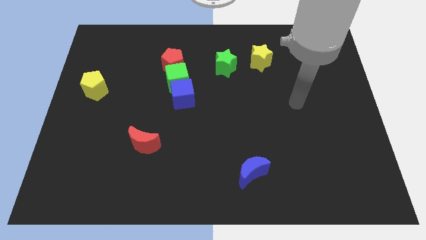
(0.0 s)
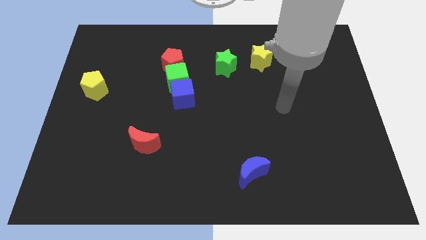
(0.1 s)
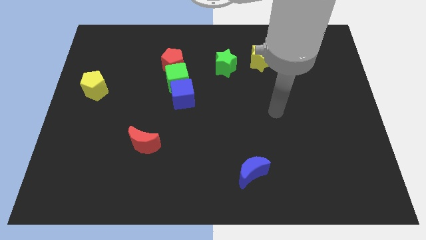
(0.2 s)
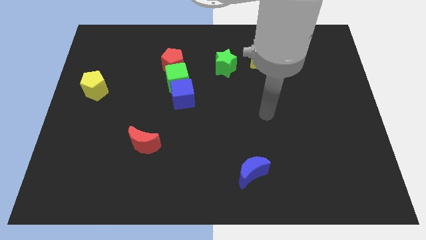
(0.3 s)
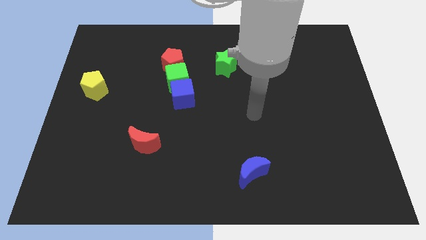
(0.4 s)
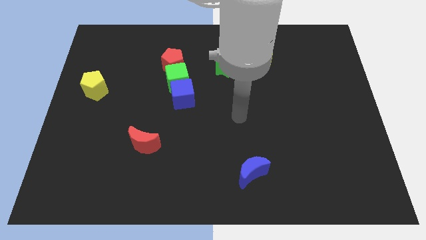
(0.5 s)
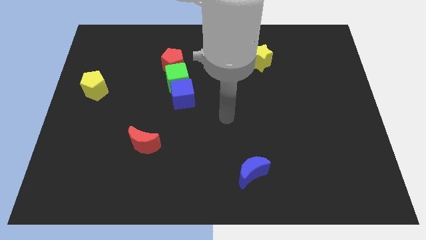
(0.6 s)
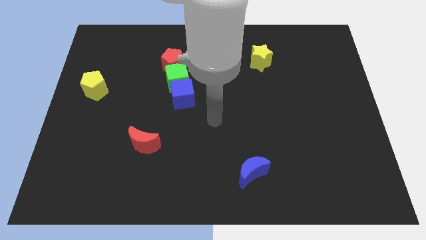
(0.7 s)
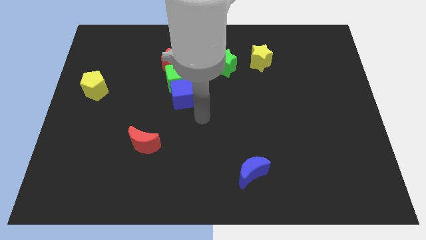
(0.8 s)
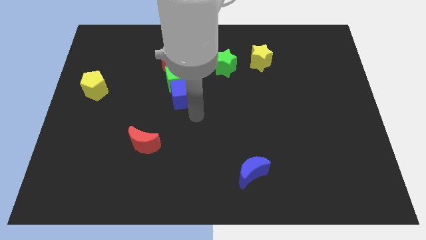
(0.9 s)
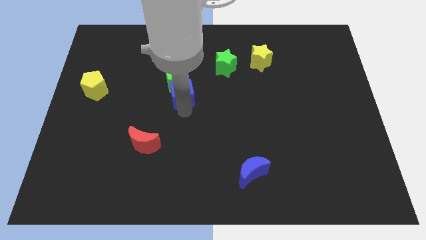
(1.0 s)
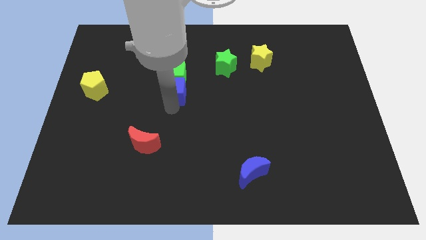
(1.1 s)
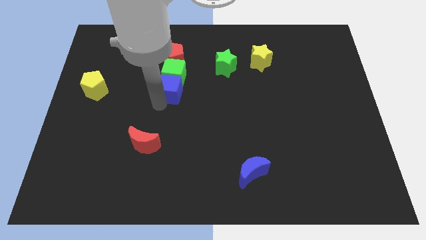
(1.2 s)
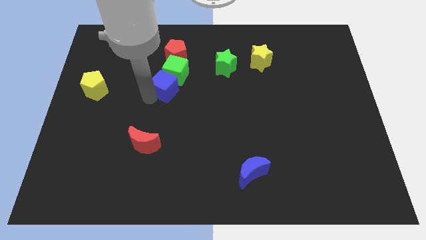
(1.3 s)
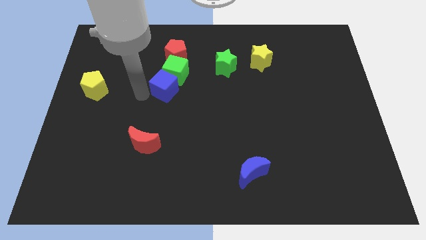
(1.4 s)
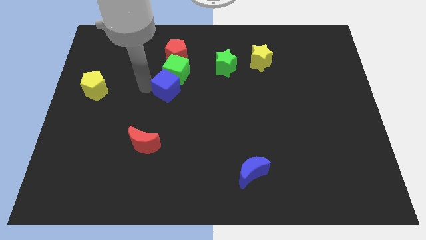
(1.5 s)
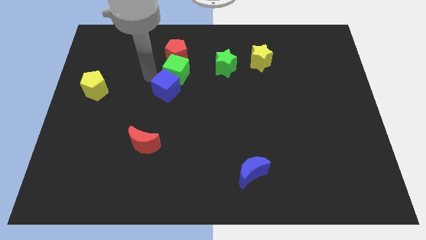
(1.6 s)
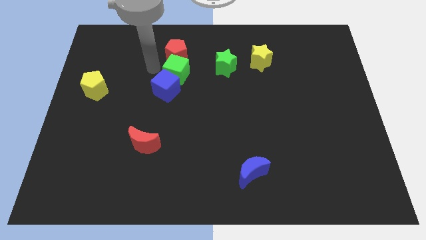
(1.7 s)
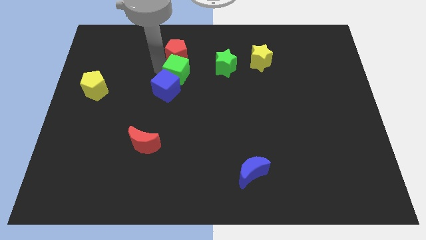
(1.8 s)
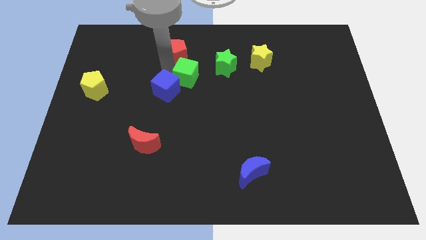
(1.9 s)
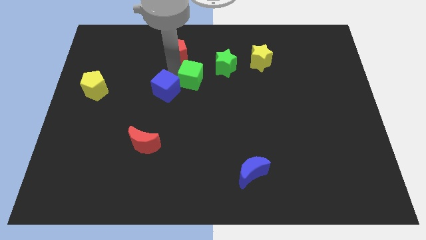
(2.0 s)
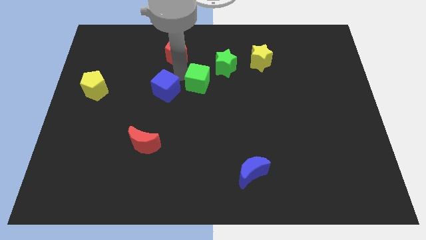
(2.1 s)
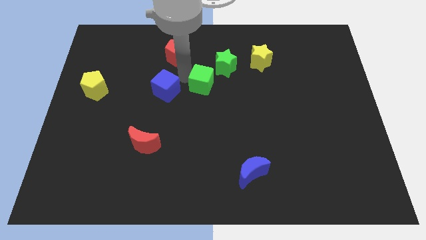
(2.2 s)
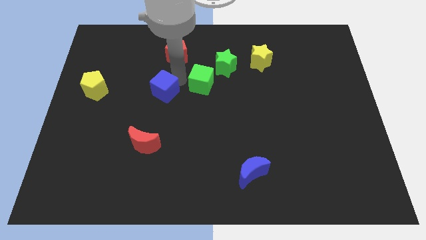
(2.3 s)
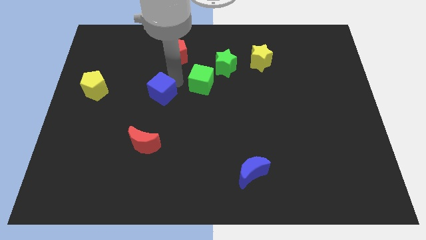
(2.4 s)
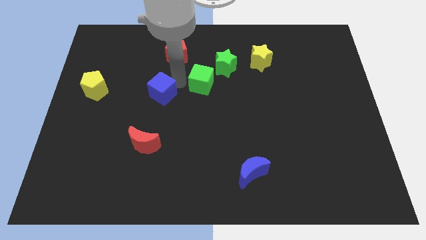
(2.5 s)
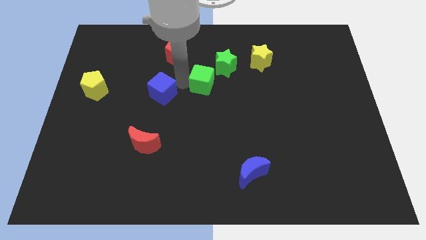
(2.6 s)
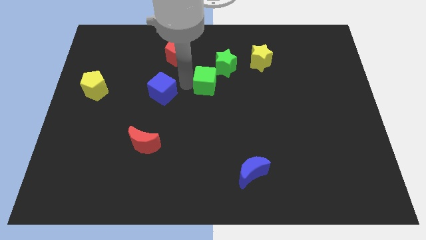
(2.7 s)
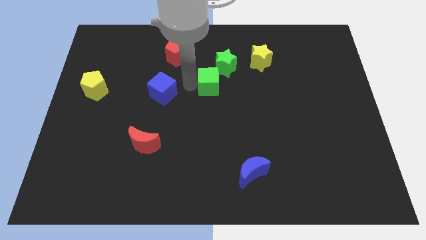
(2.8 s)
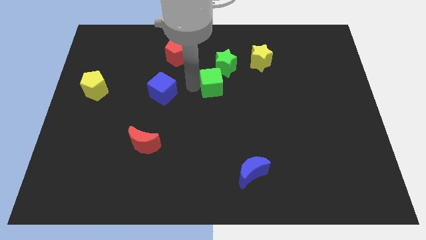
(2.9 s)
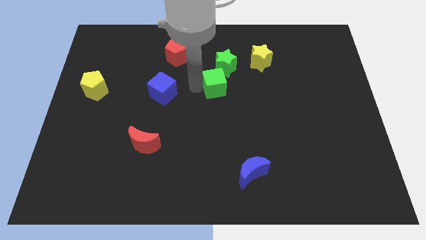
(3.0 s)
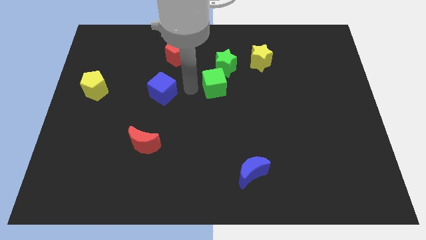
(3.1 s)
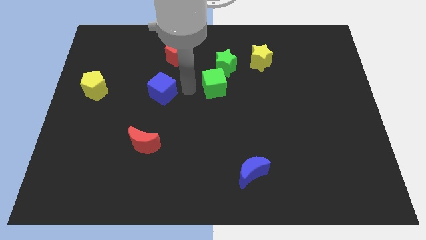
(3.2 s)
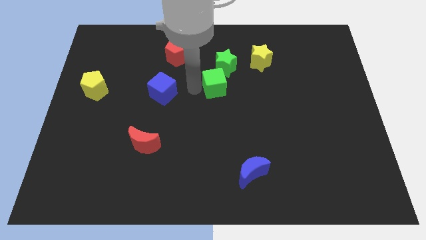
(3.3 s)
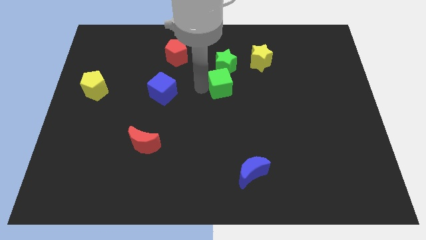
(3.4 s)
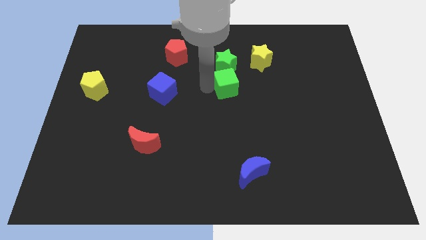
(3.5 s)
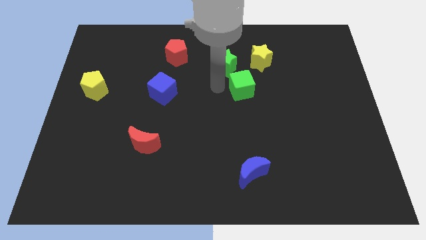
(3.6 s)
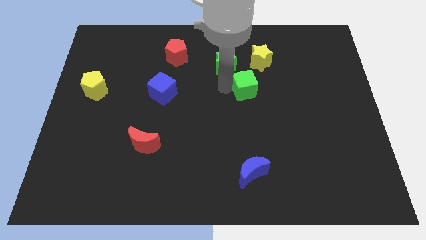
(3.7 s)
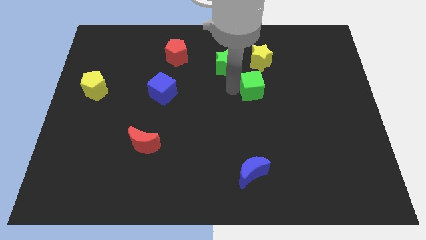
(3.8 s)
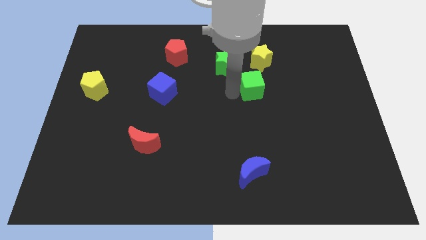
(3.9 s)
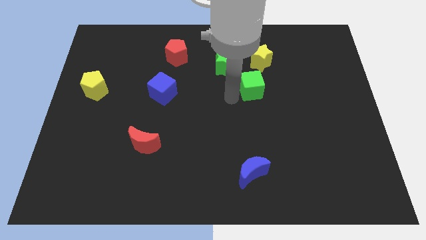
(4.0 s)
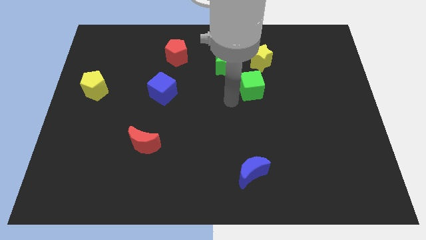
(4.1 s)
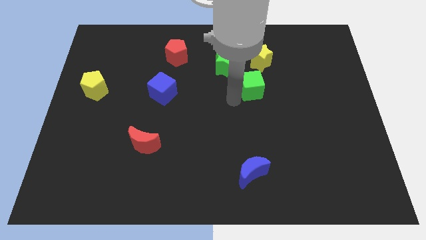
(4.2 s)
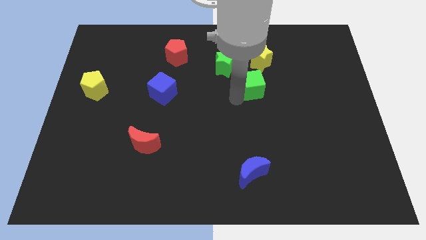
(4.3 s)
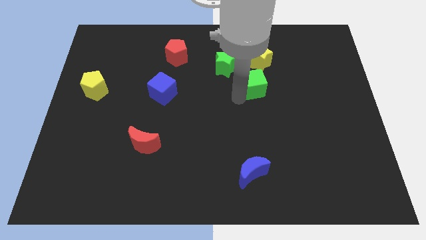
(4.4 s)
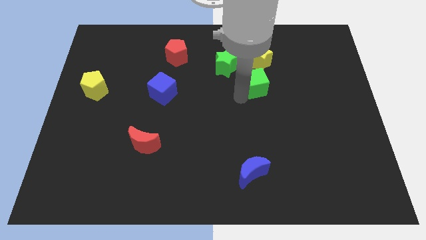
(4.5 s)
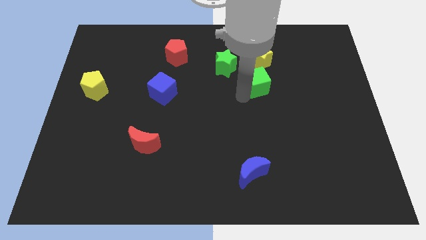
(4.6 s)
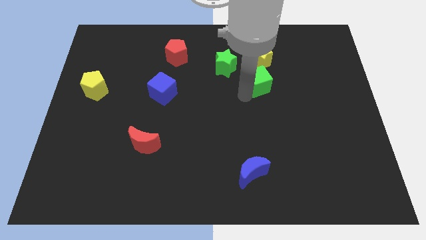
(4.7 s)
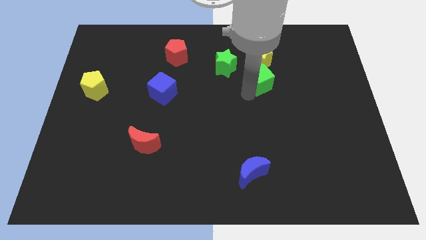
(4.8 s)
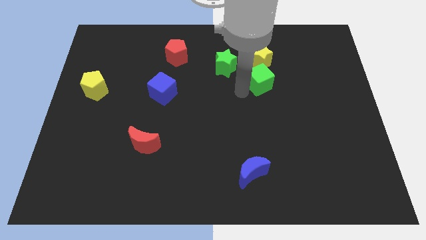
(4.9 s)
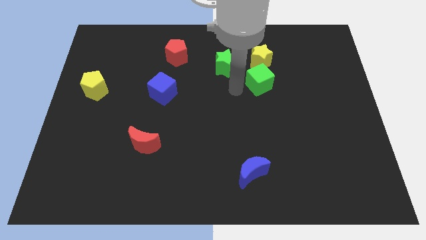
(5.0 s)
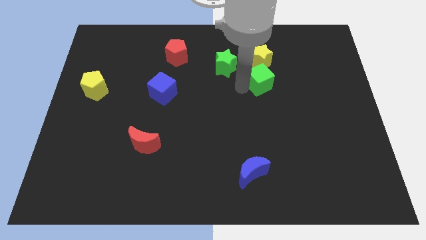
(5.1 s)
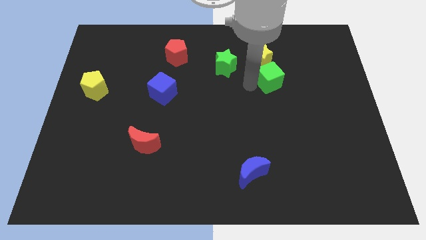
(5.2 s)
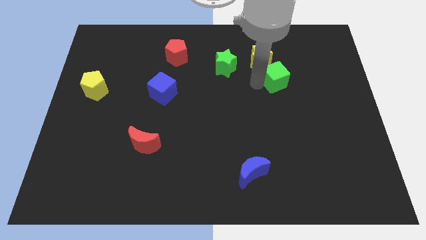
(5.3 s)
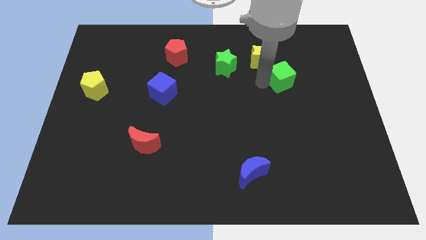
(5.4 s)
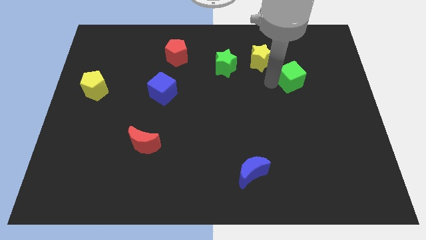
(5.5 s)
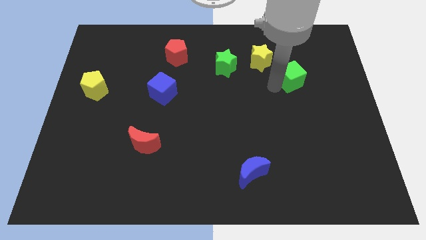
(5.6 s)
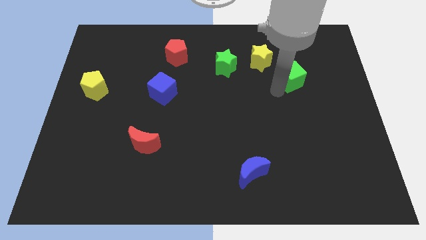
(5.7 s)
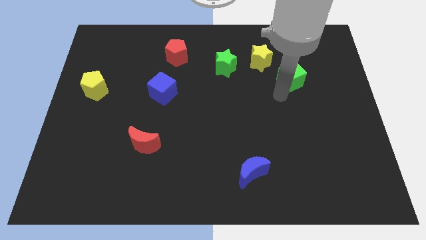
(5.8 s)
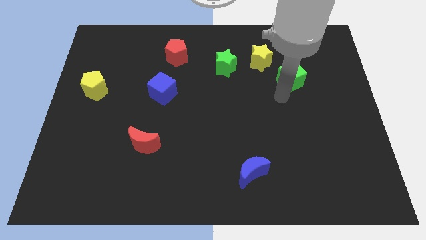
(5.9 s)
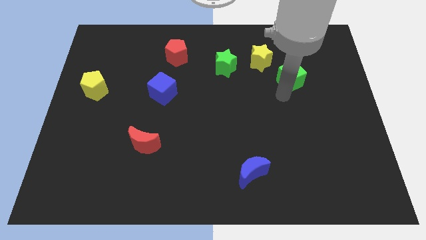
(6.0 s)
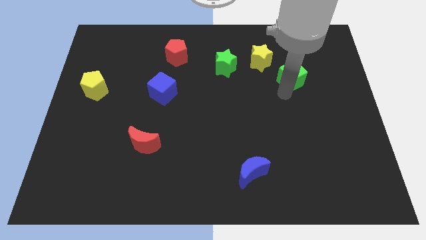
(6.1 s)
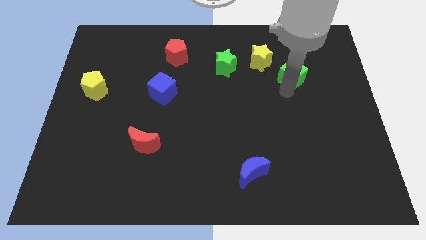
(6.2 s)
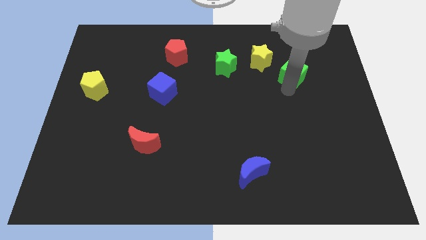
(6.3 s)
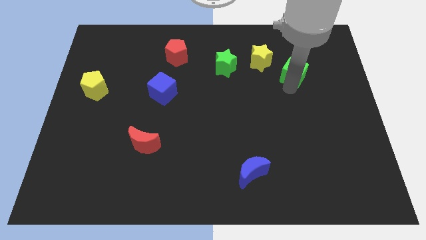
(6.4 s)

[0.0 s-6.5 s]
push the green cube just right of the yellow star
